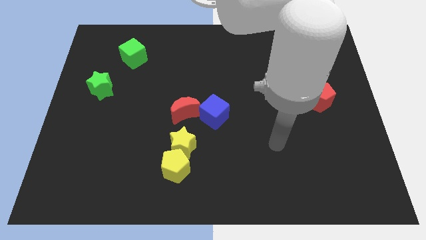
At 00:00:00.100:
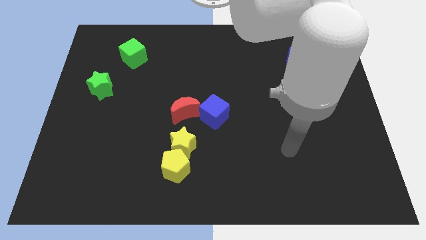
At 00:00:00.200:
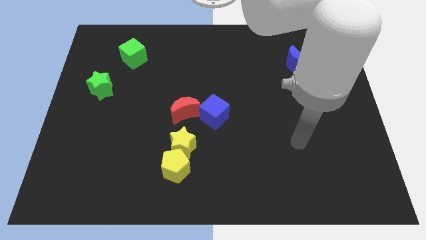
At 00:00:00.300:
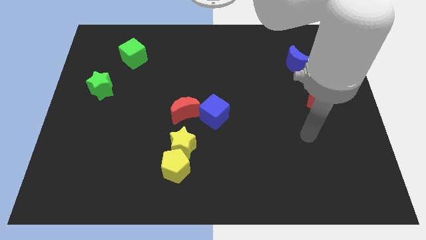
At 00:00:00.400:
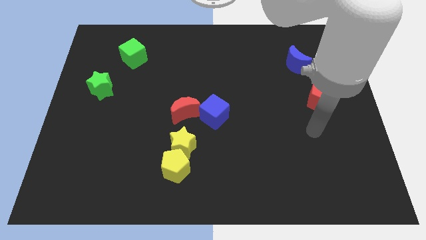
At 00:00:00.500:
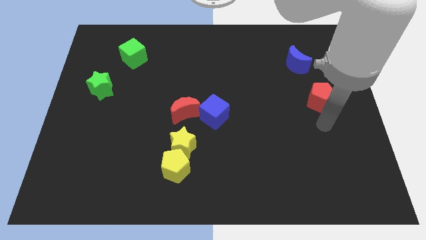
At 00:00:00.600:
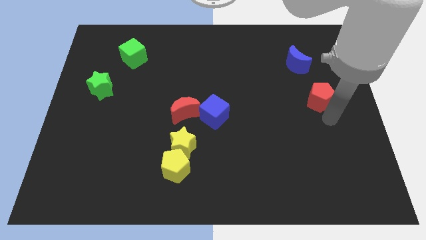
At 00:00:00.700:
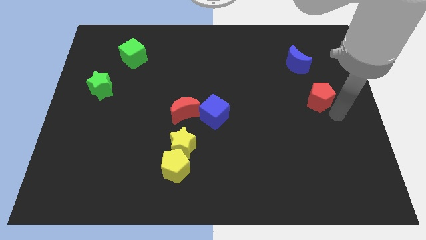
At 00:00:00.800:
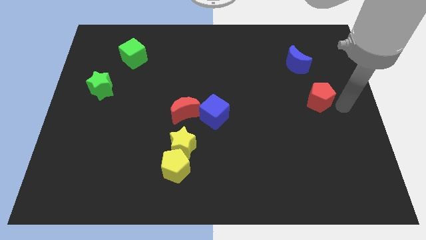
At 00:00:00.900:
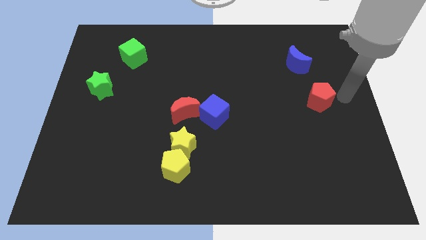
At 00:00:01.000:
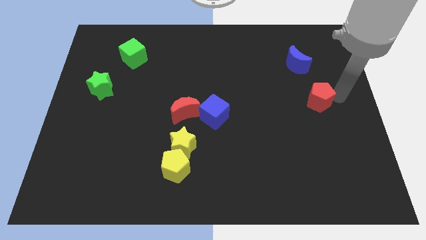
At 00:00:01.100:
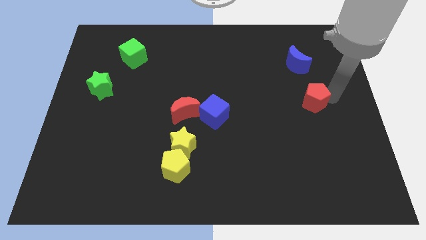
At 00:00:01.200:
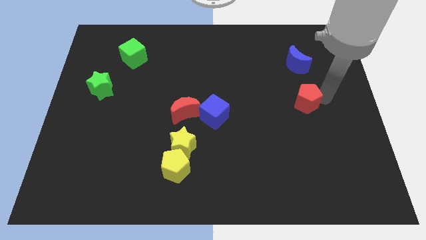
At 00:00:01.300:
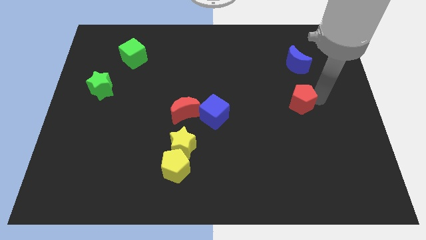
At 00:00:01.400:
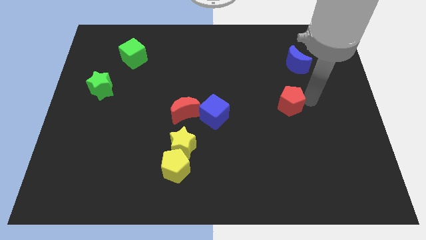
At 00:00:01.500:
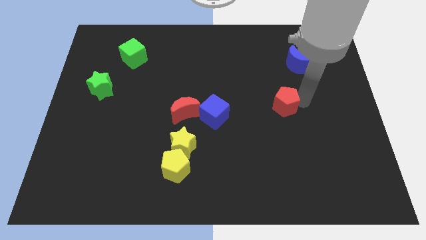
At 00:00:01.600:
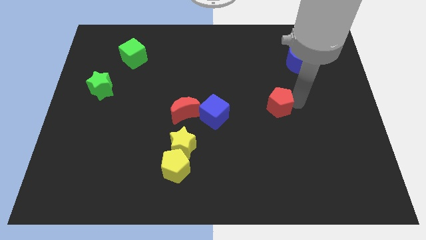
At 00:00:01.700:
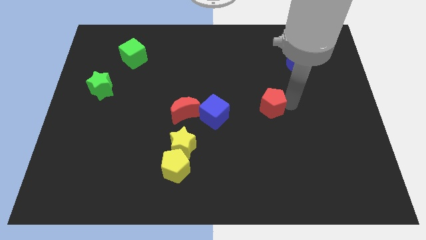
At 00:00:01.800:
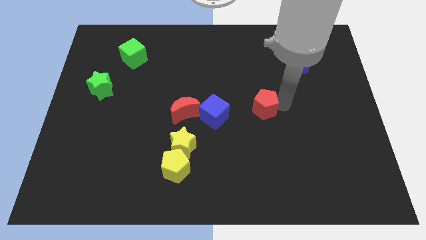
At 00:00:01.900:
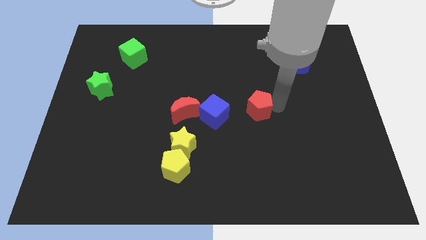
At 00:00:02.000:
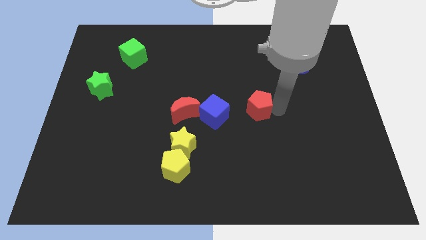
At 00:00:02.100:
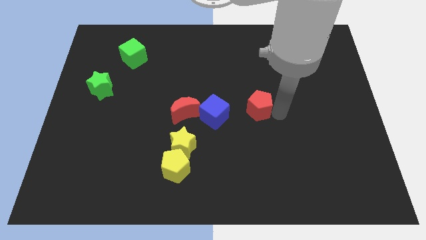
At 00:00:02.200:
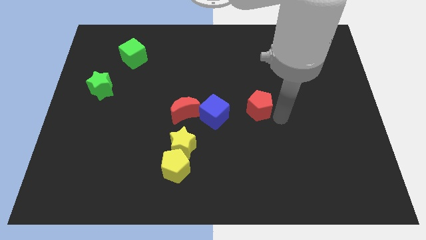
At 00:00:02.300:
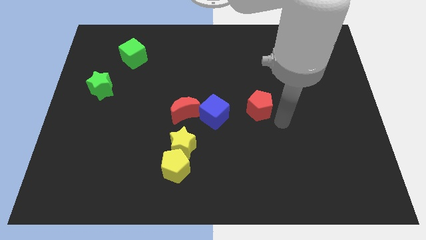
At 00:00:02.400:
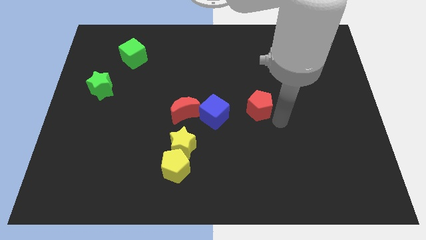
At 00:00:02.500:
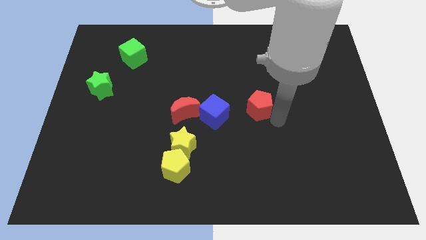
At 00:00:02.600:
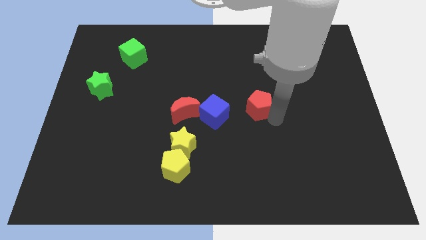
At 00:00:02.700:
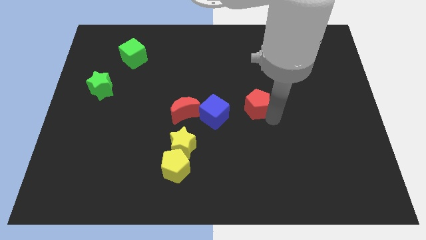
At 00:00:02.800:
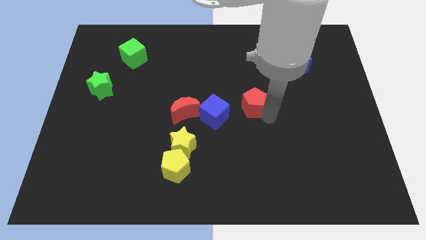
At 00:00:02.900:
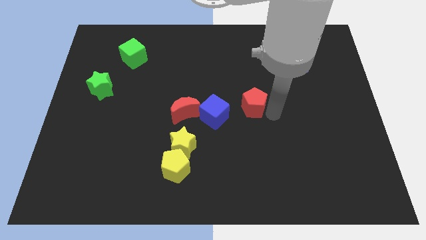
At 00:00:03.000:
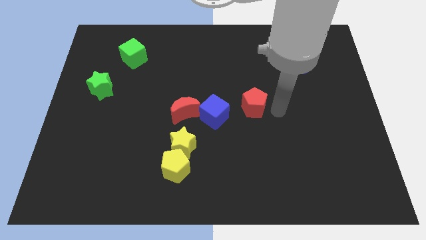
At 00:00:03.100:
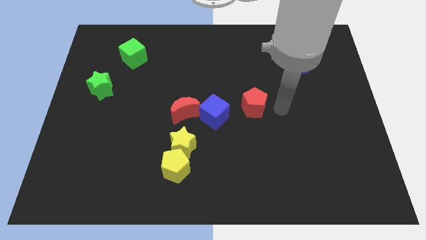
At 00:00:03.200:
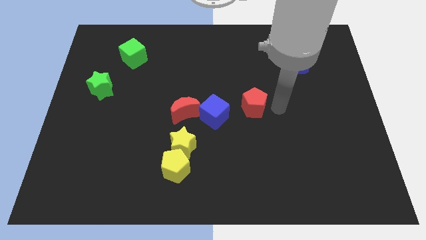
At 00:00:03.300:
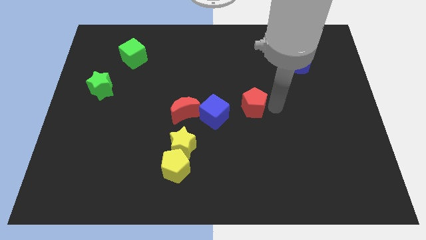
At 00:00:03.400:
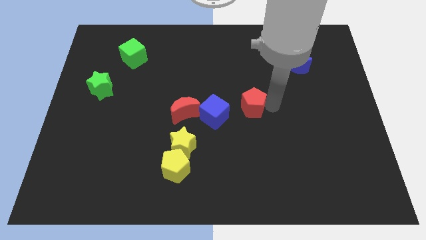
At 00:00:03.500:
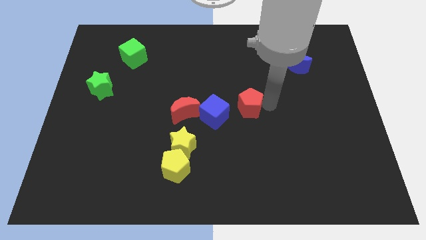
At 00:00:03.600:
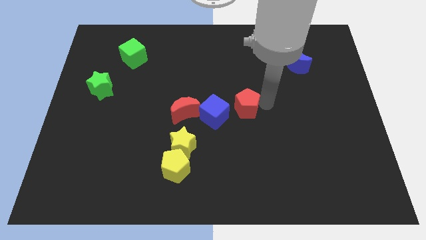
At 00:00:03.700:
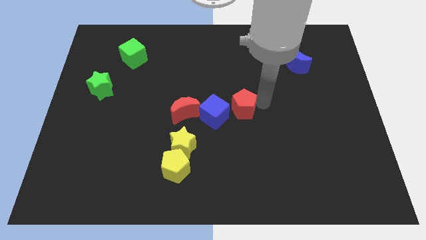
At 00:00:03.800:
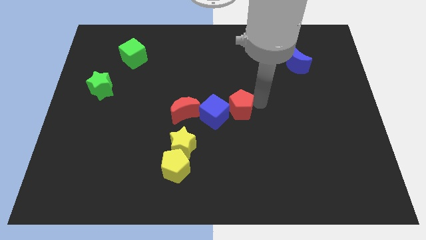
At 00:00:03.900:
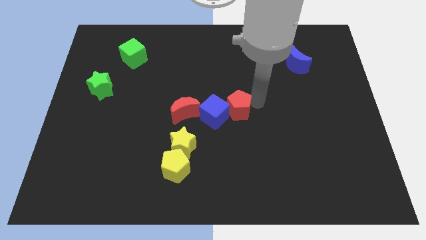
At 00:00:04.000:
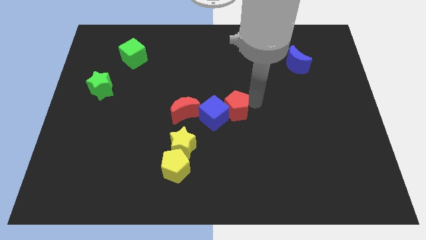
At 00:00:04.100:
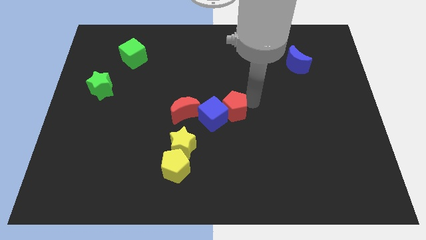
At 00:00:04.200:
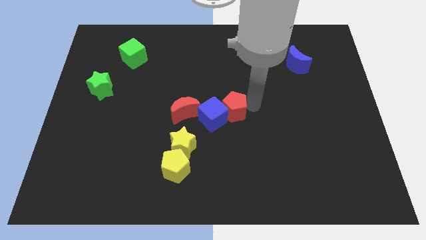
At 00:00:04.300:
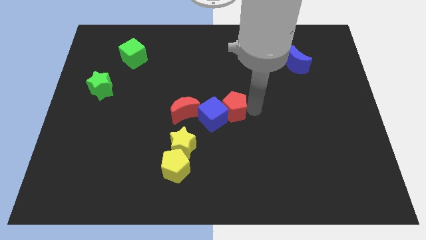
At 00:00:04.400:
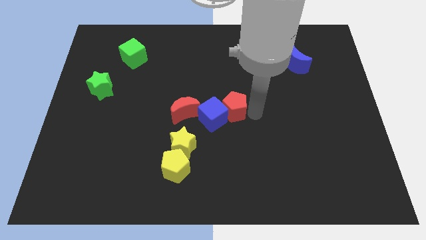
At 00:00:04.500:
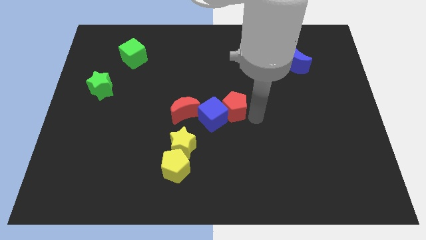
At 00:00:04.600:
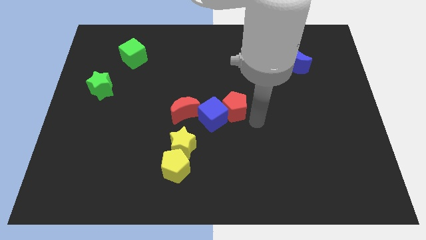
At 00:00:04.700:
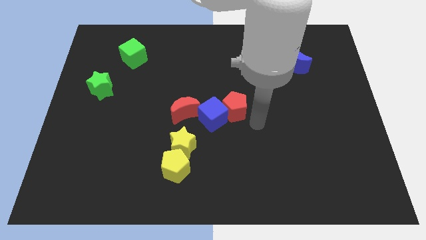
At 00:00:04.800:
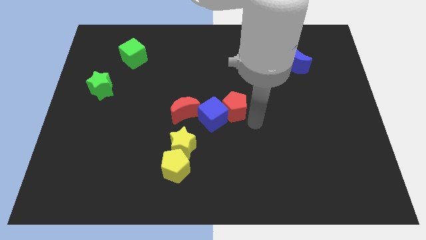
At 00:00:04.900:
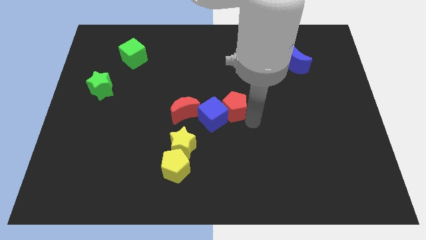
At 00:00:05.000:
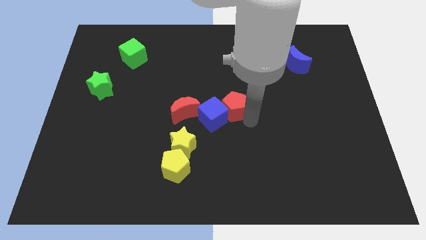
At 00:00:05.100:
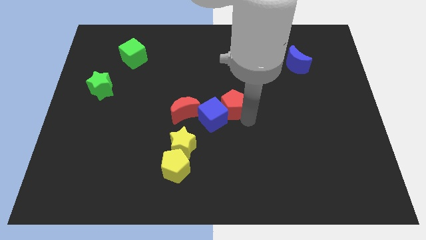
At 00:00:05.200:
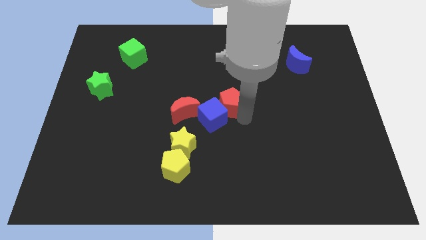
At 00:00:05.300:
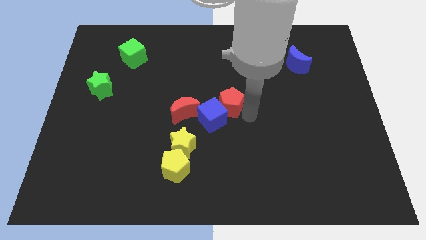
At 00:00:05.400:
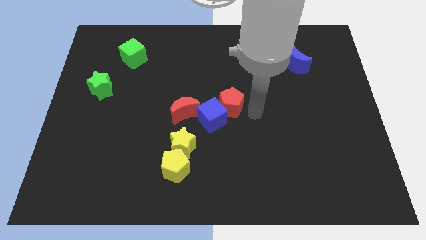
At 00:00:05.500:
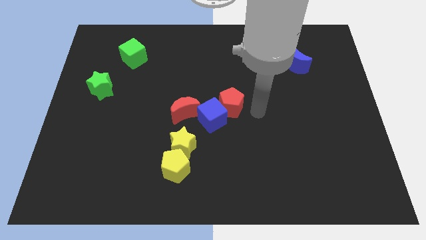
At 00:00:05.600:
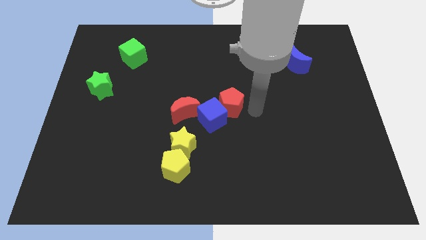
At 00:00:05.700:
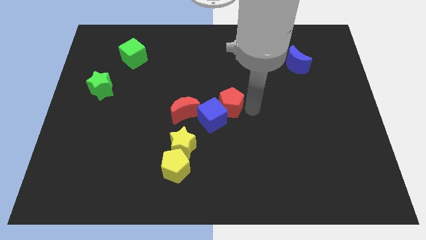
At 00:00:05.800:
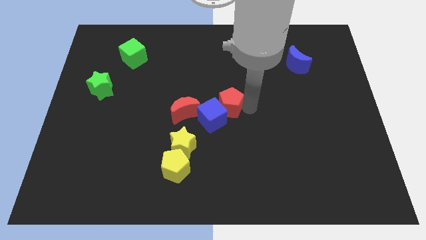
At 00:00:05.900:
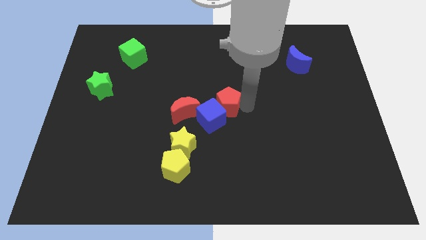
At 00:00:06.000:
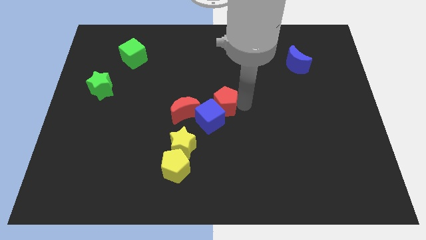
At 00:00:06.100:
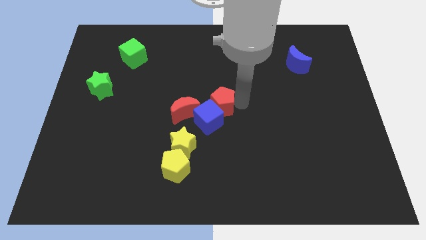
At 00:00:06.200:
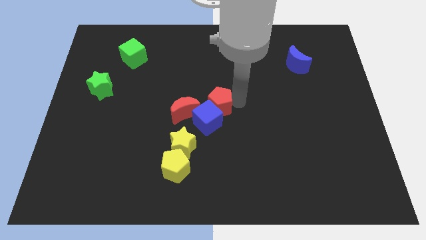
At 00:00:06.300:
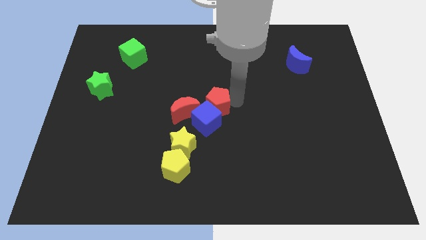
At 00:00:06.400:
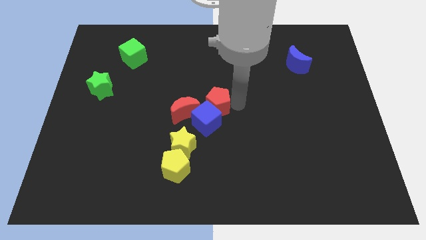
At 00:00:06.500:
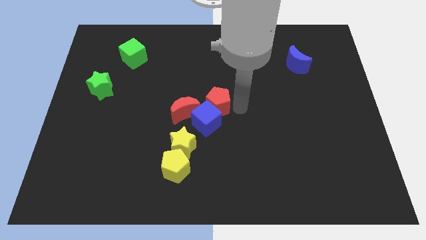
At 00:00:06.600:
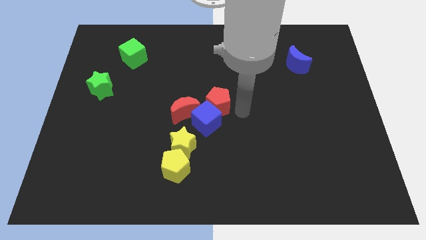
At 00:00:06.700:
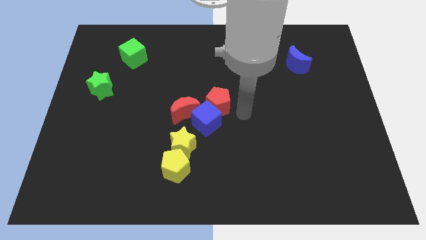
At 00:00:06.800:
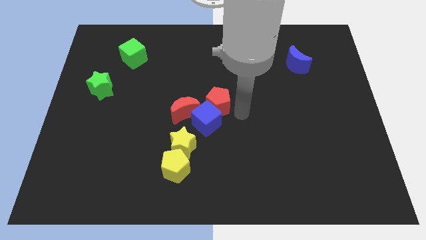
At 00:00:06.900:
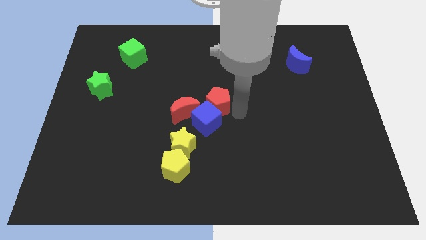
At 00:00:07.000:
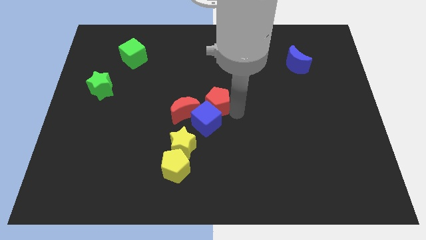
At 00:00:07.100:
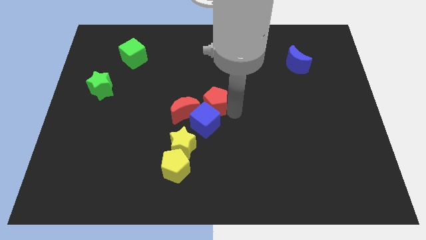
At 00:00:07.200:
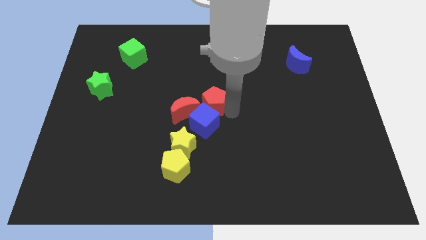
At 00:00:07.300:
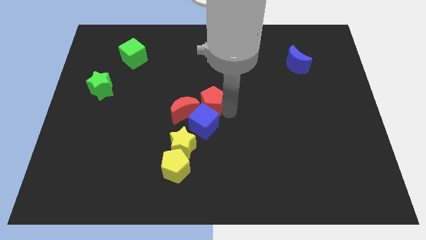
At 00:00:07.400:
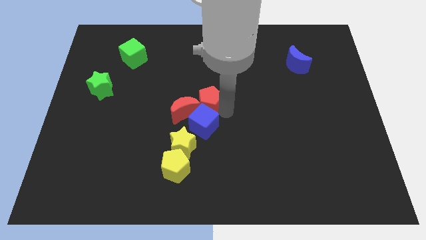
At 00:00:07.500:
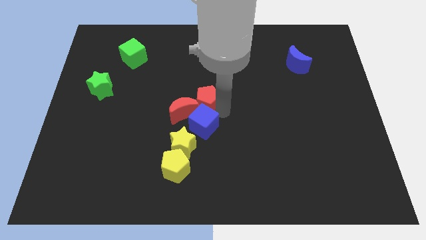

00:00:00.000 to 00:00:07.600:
move the red pentagon to the red moon
